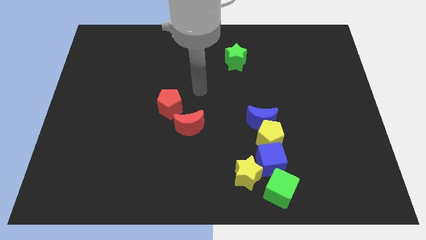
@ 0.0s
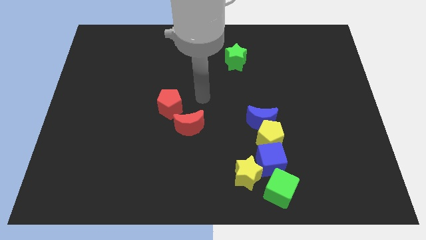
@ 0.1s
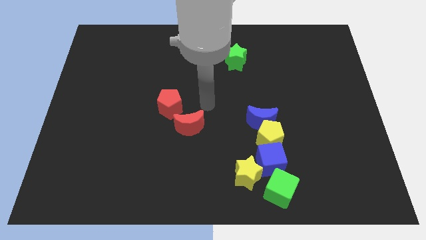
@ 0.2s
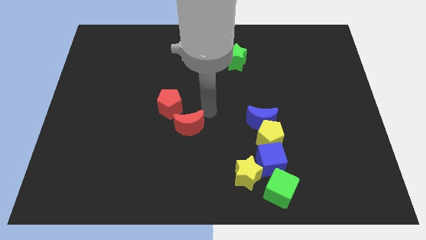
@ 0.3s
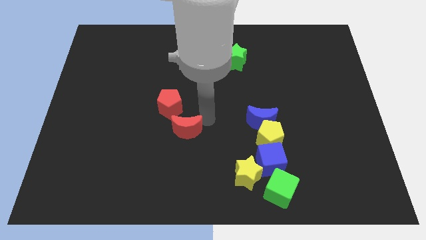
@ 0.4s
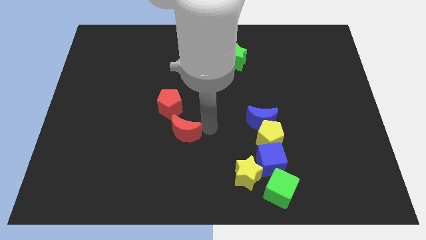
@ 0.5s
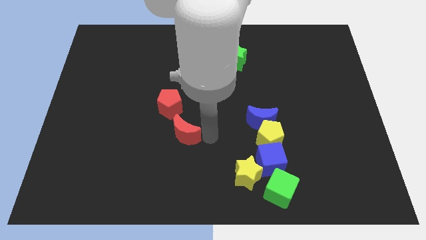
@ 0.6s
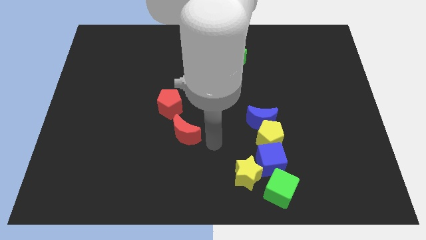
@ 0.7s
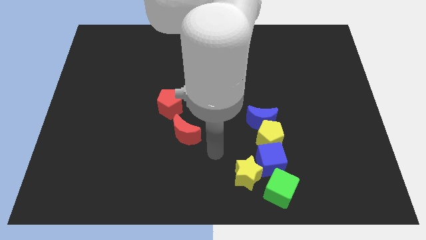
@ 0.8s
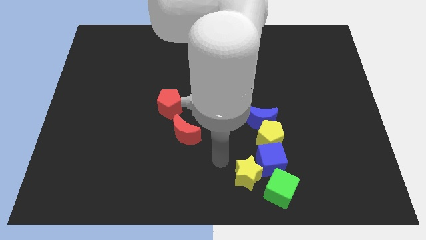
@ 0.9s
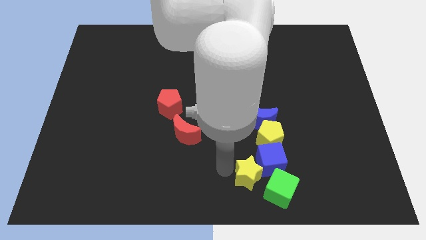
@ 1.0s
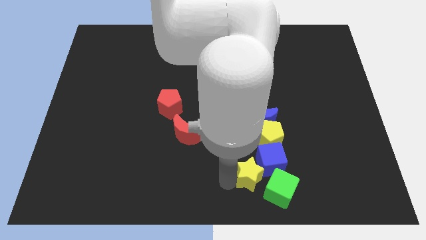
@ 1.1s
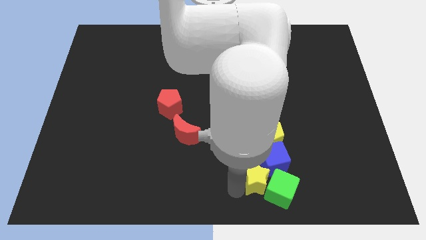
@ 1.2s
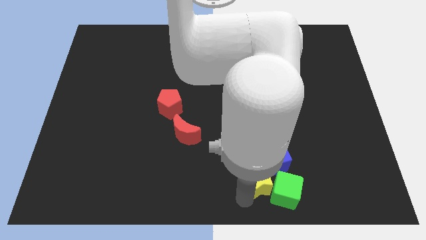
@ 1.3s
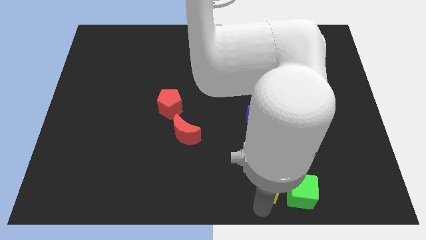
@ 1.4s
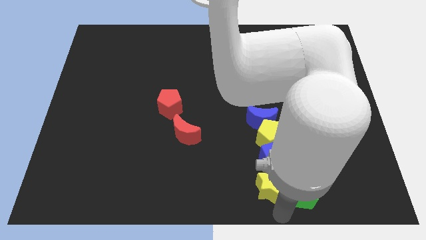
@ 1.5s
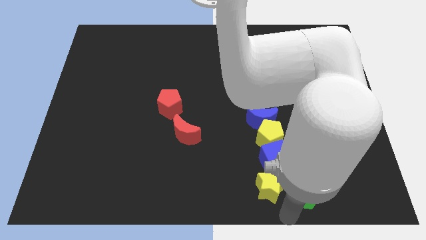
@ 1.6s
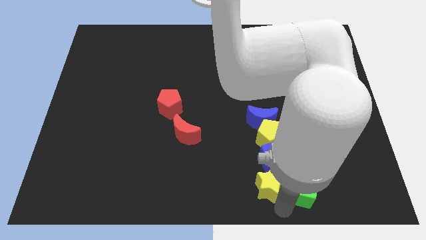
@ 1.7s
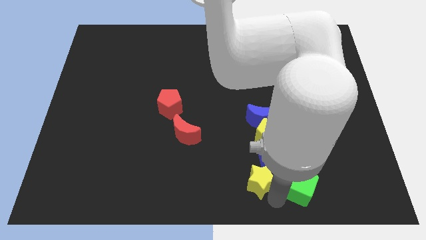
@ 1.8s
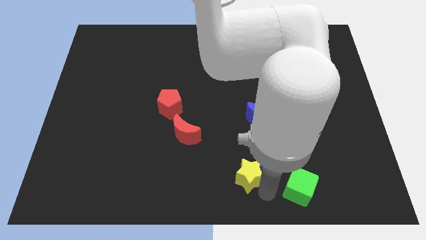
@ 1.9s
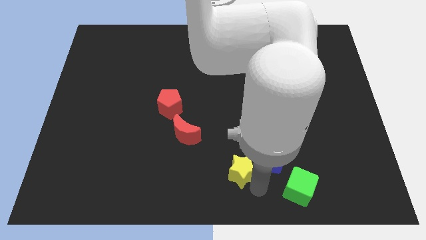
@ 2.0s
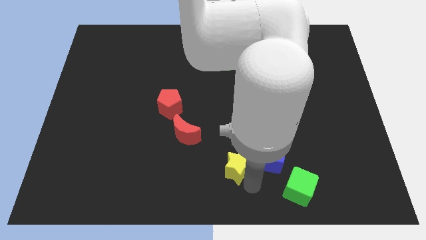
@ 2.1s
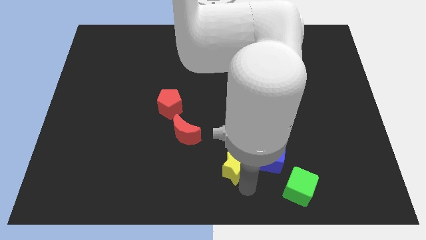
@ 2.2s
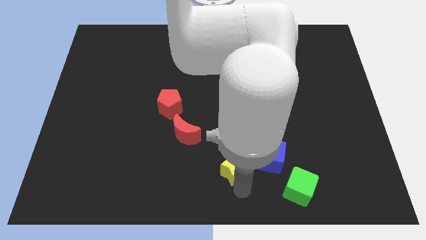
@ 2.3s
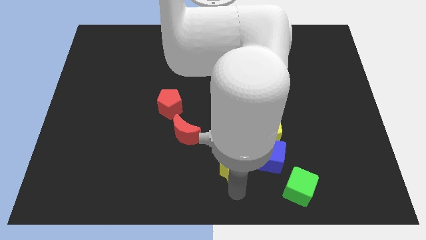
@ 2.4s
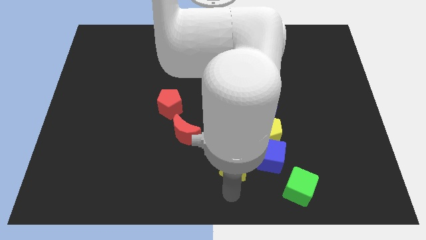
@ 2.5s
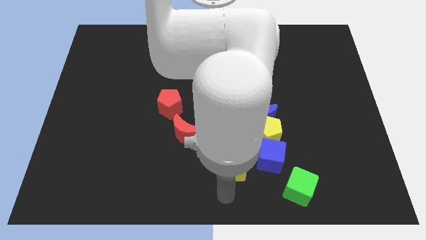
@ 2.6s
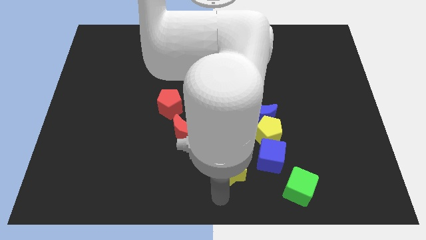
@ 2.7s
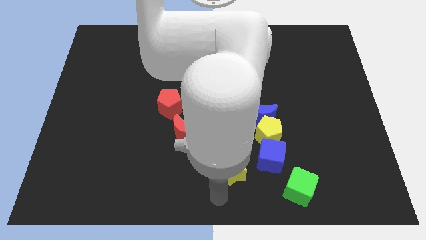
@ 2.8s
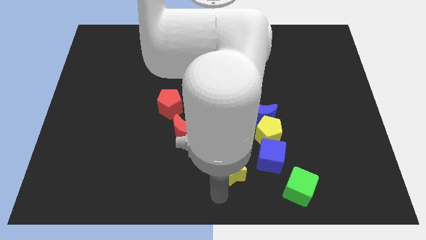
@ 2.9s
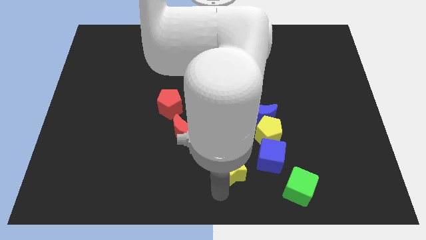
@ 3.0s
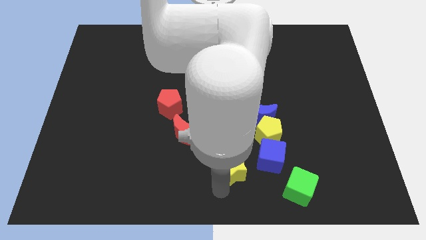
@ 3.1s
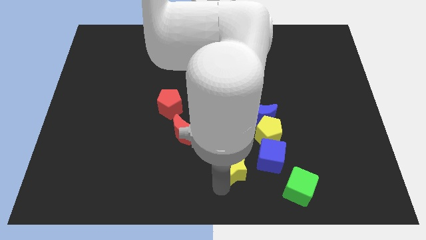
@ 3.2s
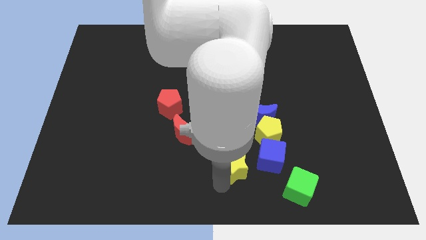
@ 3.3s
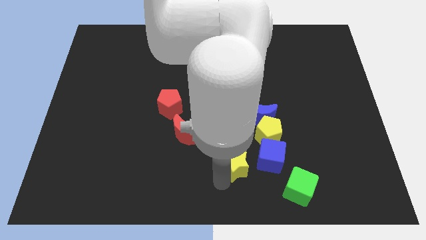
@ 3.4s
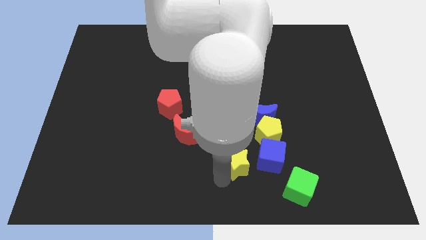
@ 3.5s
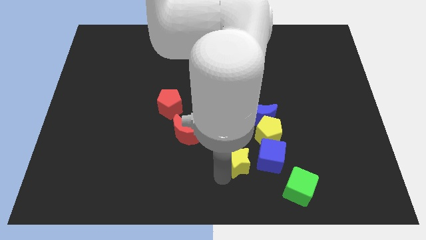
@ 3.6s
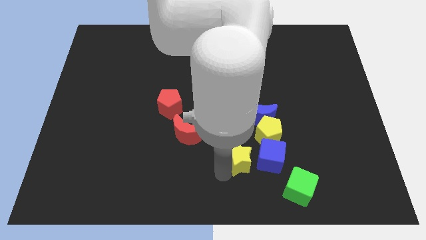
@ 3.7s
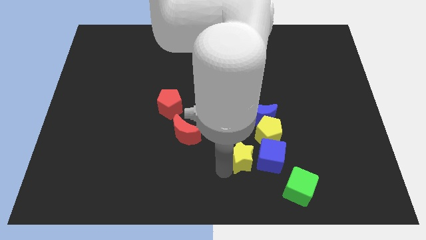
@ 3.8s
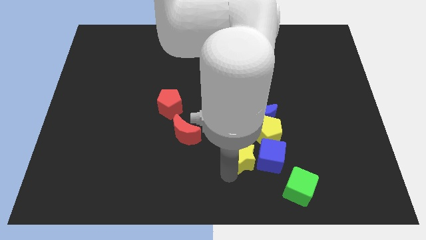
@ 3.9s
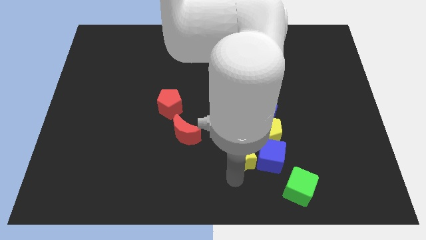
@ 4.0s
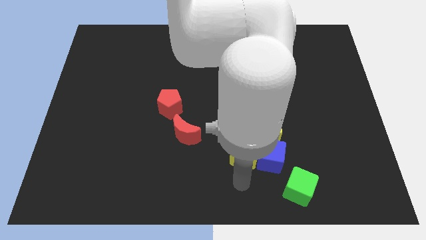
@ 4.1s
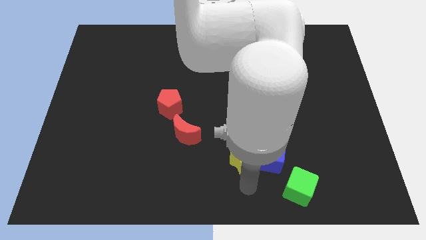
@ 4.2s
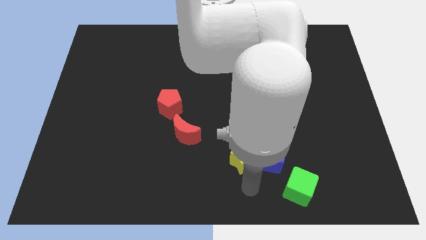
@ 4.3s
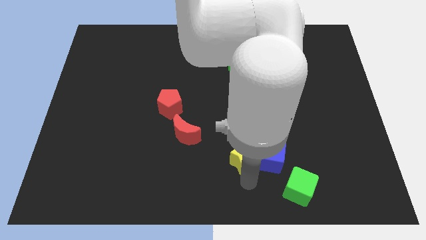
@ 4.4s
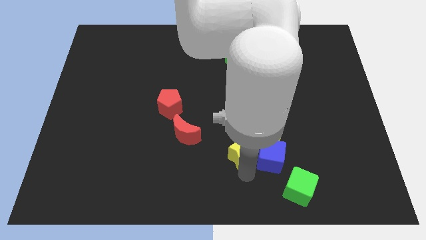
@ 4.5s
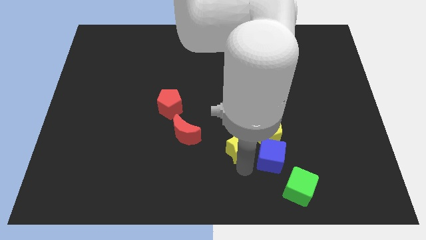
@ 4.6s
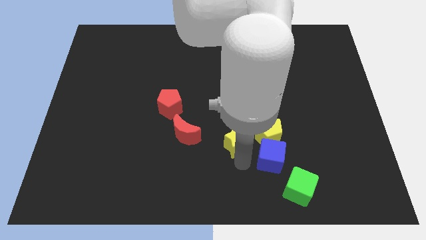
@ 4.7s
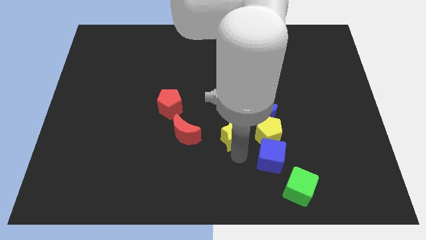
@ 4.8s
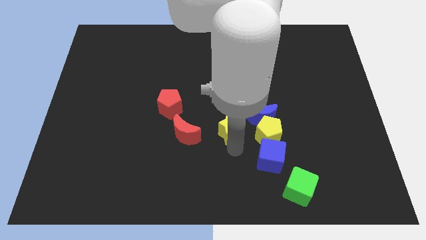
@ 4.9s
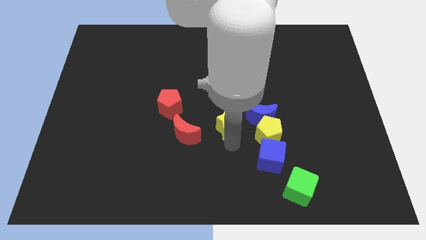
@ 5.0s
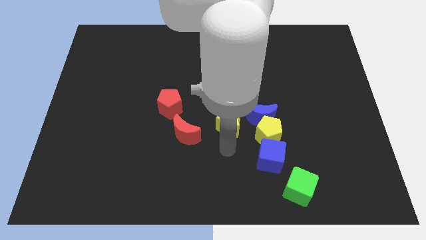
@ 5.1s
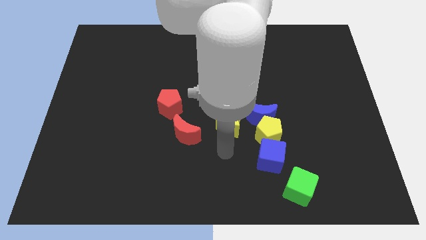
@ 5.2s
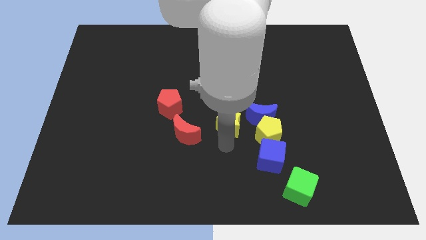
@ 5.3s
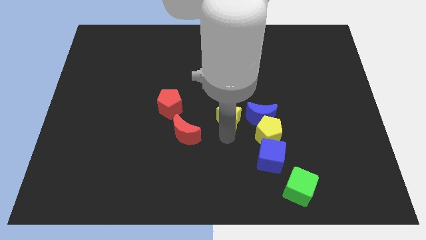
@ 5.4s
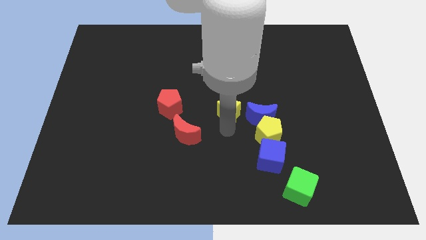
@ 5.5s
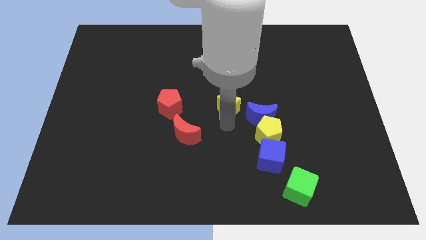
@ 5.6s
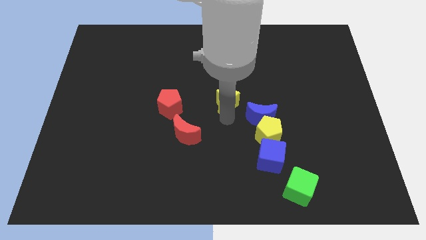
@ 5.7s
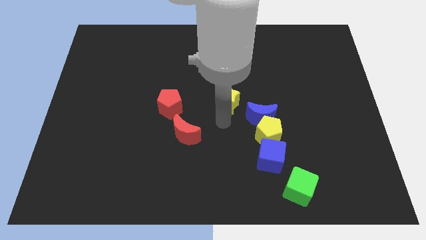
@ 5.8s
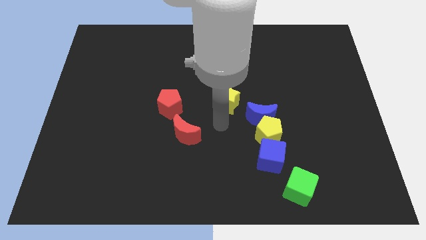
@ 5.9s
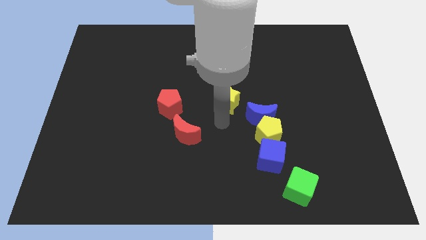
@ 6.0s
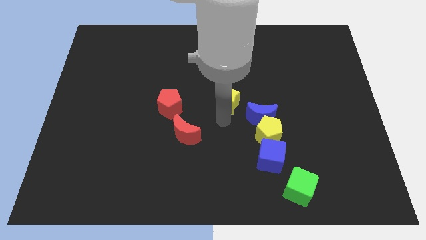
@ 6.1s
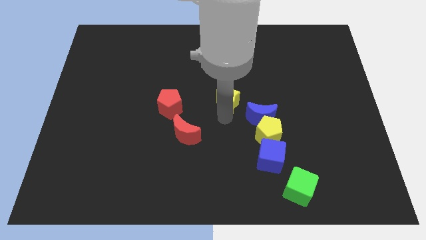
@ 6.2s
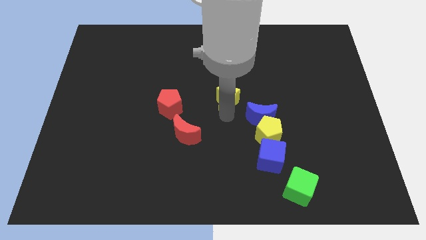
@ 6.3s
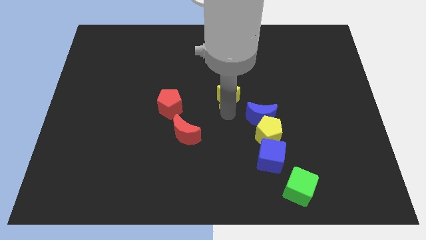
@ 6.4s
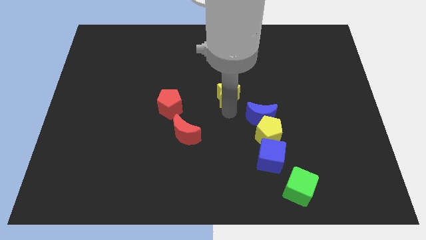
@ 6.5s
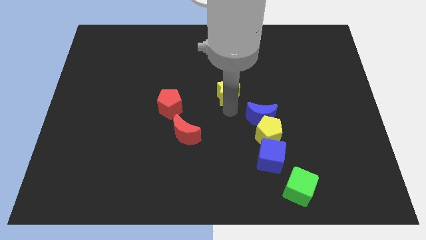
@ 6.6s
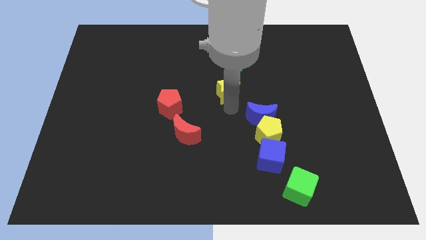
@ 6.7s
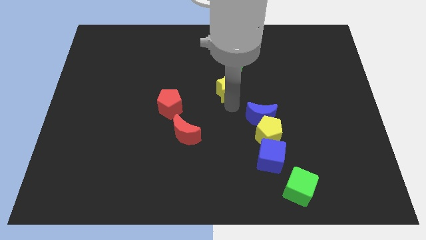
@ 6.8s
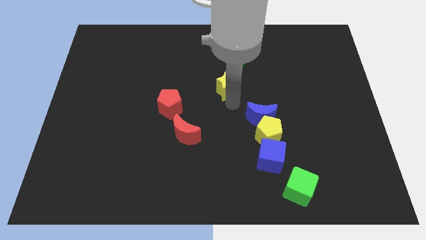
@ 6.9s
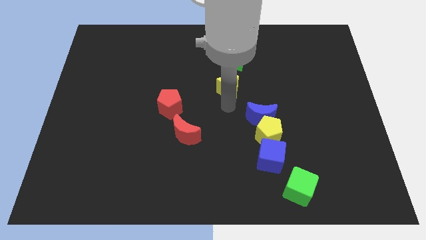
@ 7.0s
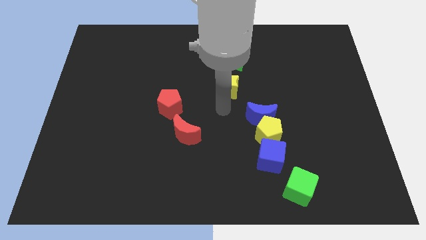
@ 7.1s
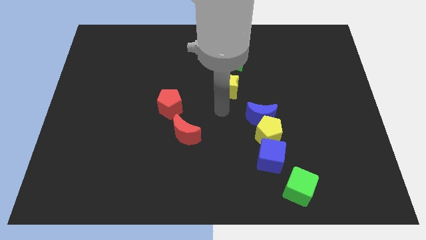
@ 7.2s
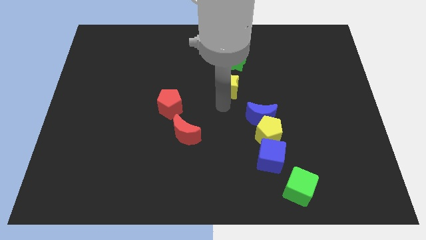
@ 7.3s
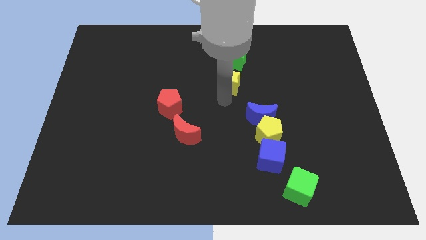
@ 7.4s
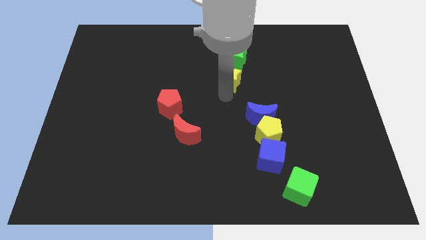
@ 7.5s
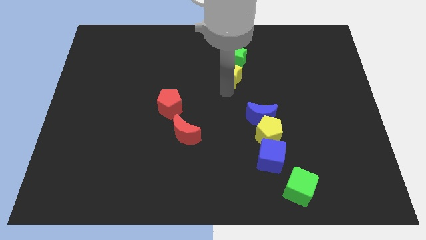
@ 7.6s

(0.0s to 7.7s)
slide the yellow star to the green star
